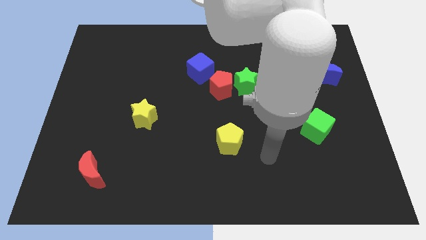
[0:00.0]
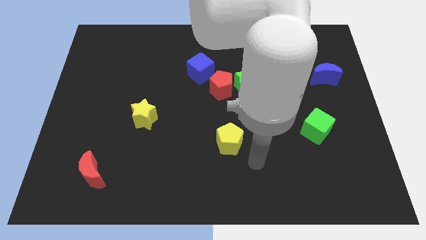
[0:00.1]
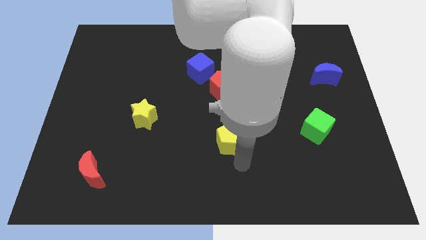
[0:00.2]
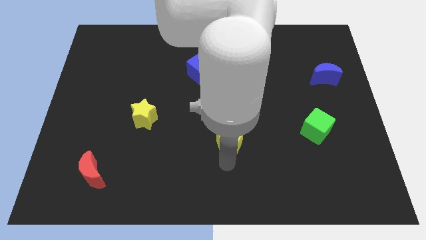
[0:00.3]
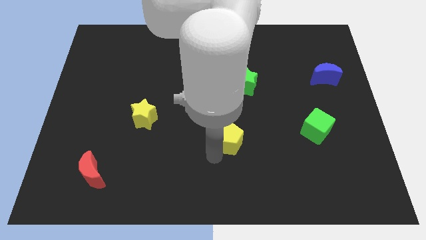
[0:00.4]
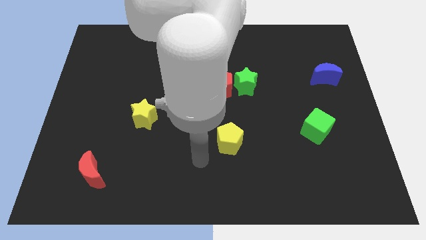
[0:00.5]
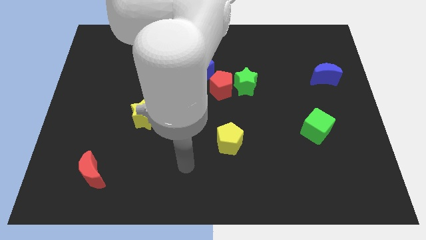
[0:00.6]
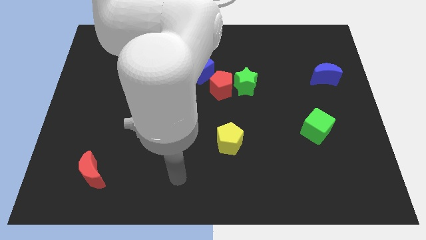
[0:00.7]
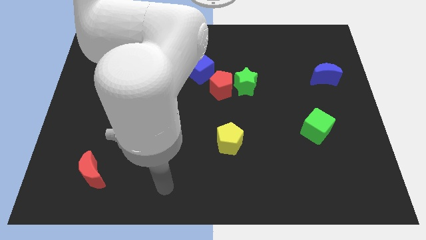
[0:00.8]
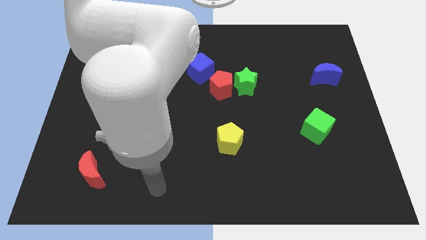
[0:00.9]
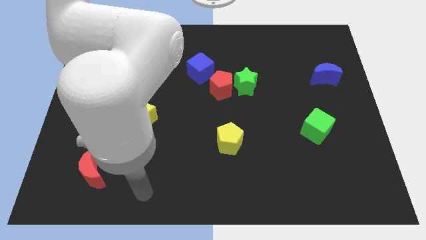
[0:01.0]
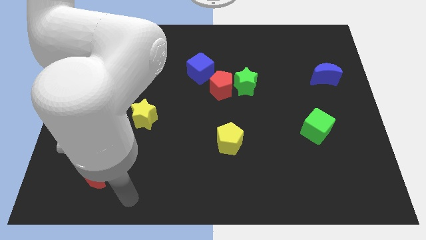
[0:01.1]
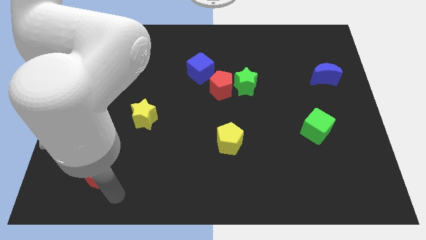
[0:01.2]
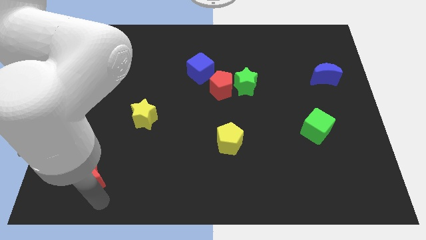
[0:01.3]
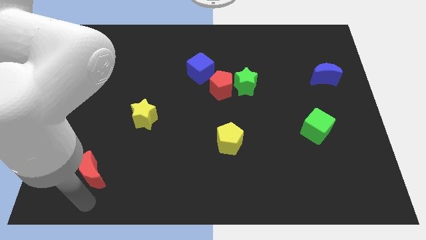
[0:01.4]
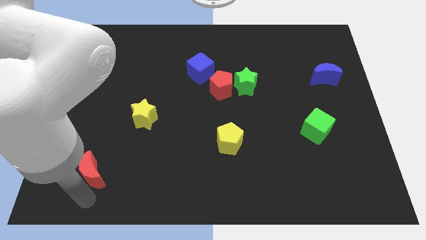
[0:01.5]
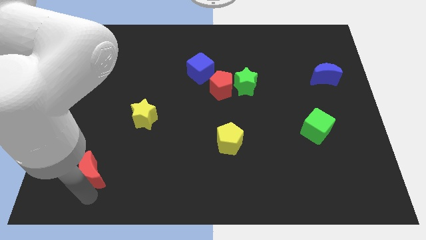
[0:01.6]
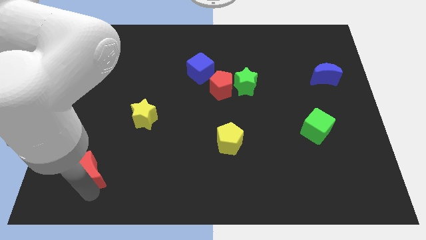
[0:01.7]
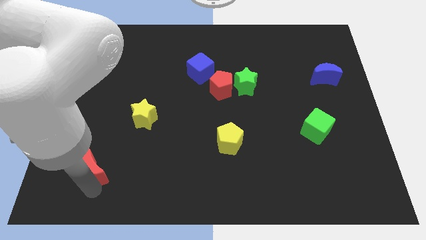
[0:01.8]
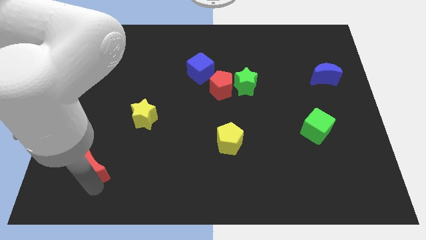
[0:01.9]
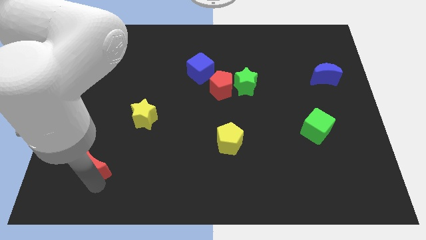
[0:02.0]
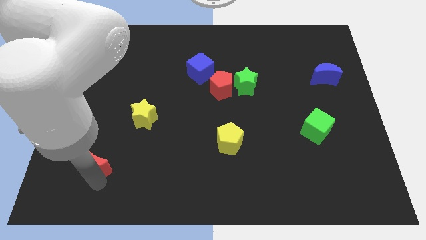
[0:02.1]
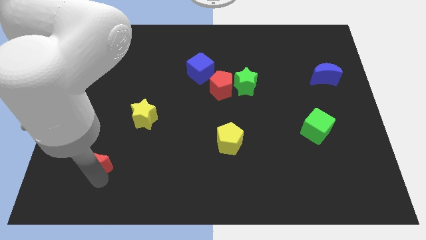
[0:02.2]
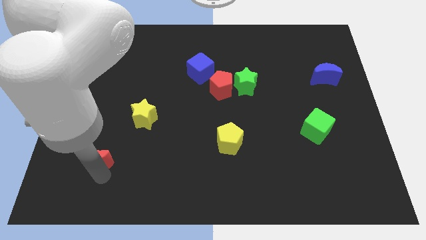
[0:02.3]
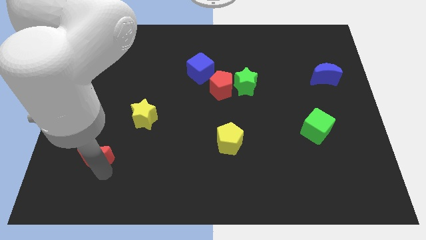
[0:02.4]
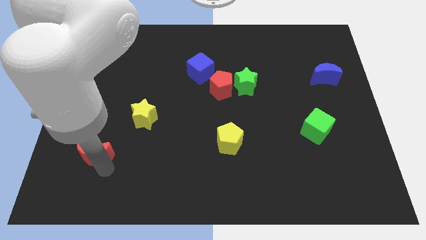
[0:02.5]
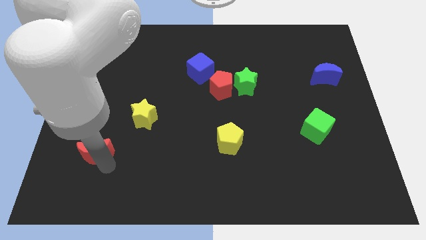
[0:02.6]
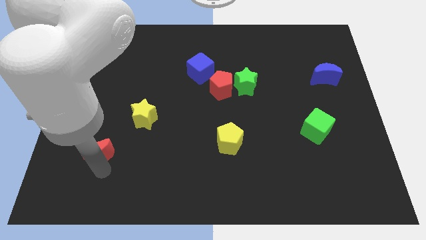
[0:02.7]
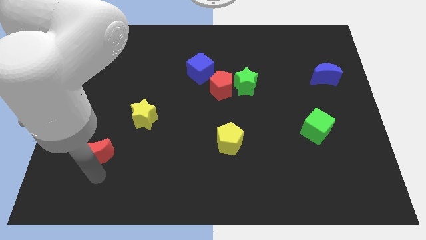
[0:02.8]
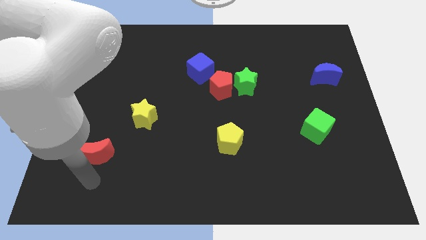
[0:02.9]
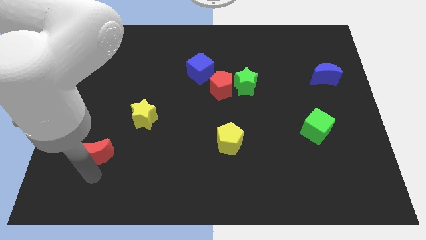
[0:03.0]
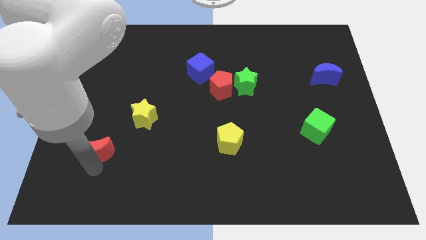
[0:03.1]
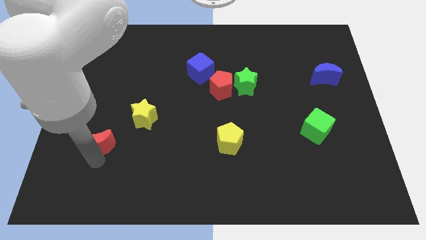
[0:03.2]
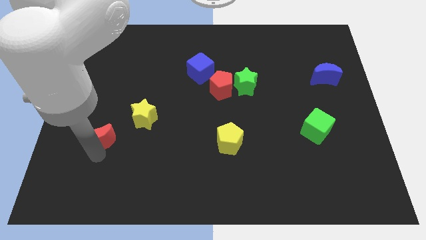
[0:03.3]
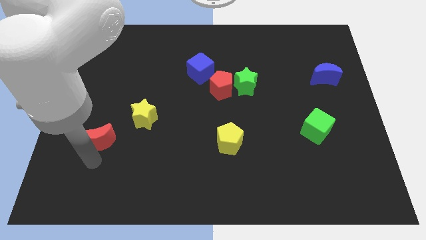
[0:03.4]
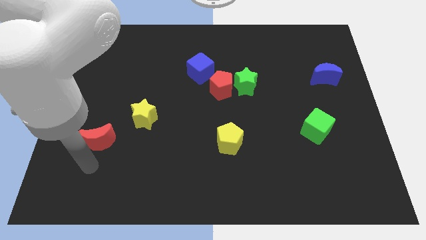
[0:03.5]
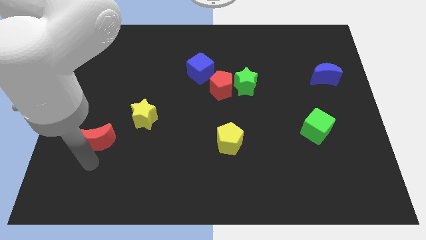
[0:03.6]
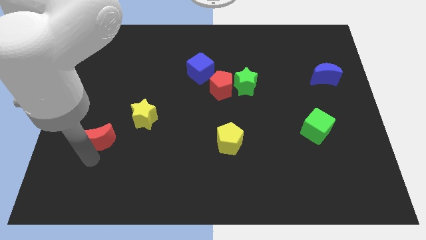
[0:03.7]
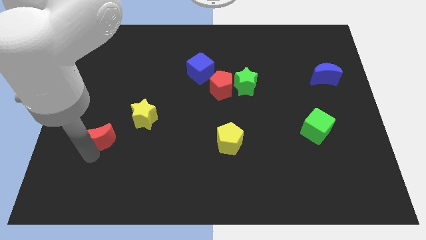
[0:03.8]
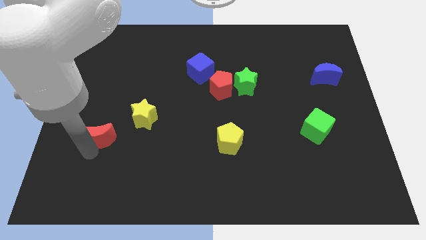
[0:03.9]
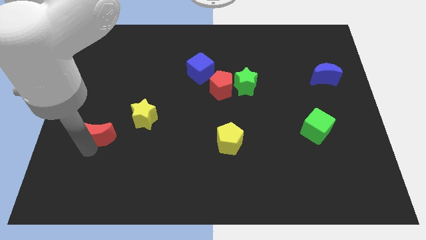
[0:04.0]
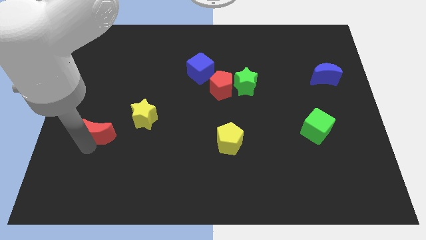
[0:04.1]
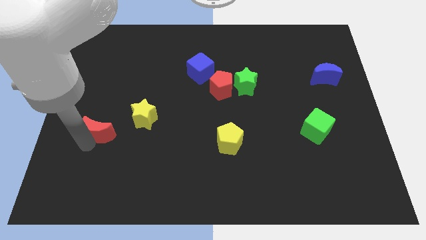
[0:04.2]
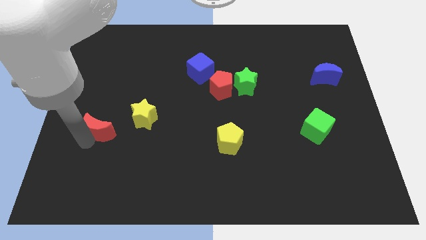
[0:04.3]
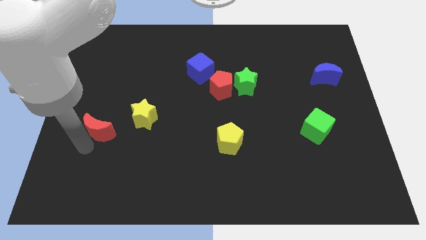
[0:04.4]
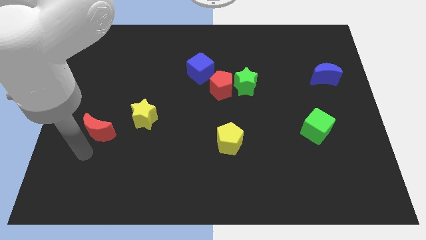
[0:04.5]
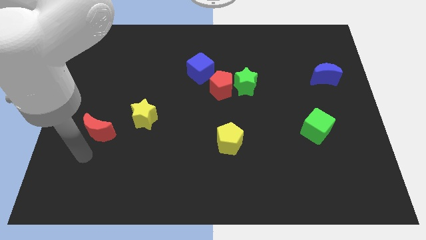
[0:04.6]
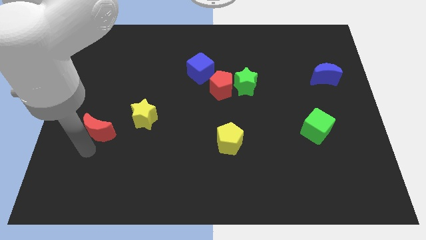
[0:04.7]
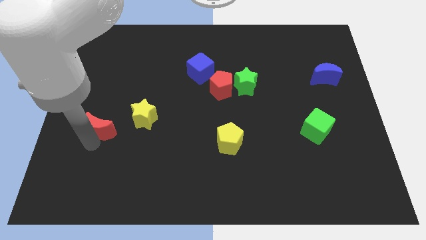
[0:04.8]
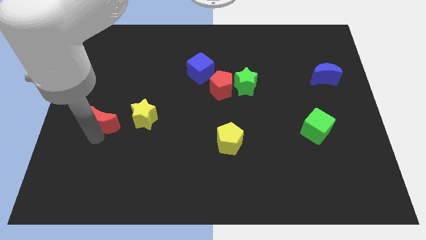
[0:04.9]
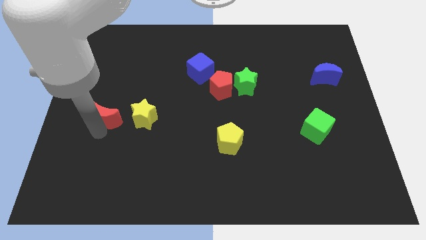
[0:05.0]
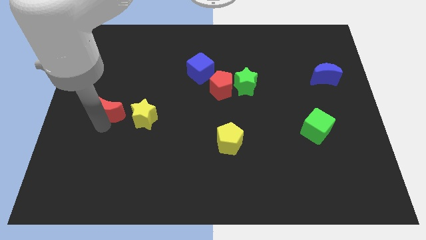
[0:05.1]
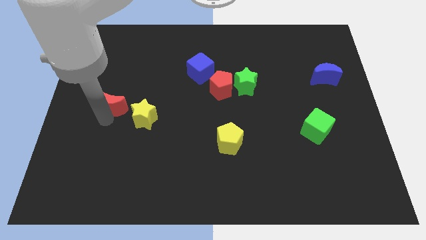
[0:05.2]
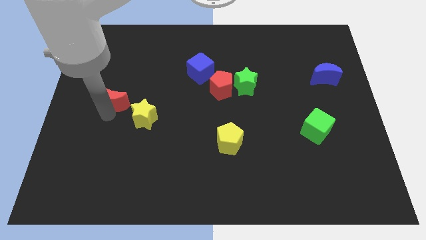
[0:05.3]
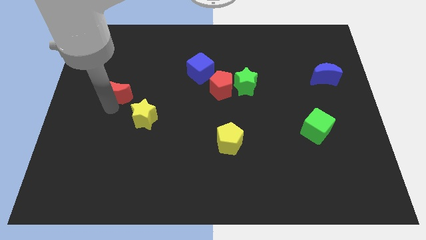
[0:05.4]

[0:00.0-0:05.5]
push the red moon up

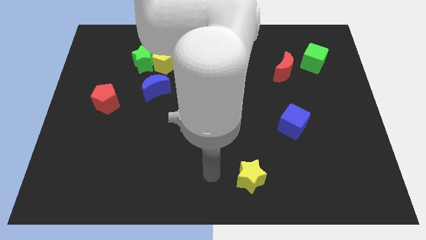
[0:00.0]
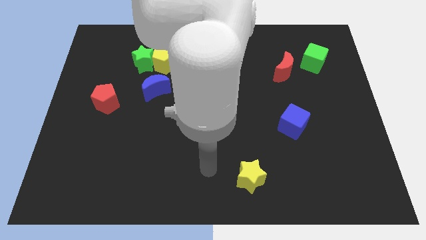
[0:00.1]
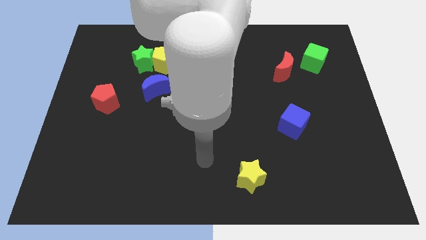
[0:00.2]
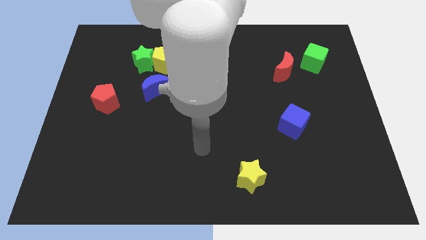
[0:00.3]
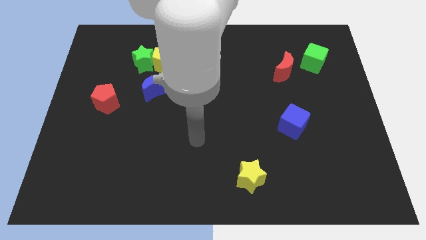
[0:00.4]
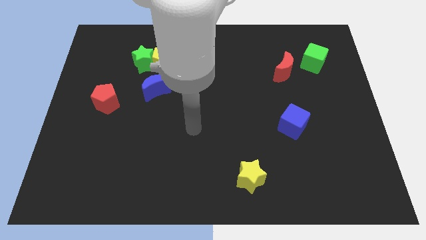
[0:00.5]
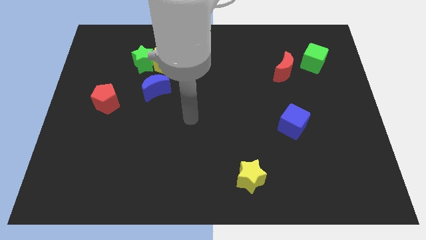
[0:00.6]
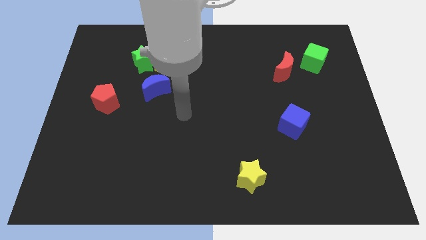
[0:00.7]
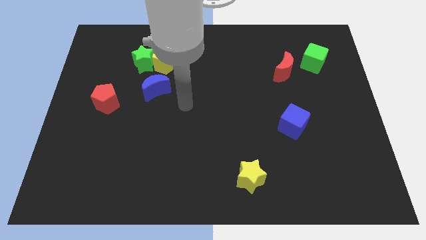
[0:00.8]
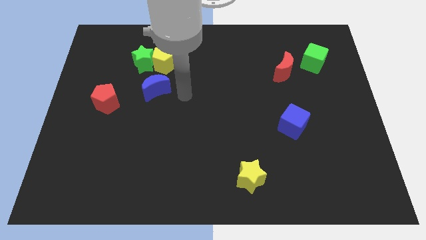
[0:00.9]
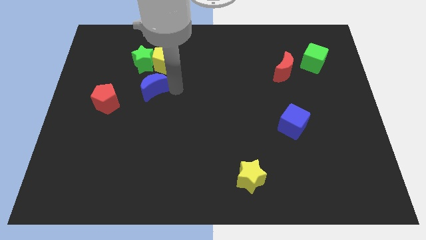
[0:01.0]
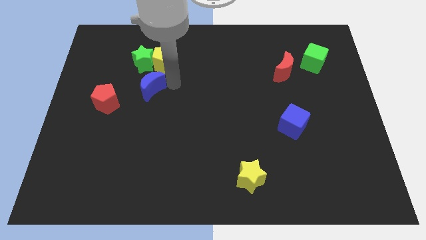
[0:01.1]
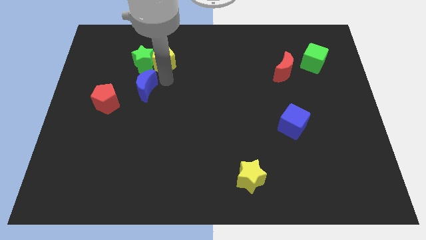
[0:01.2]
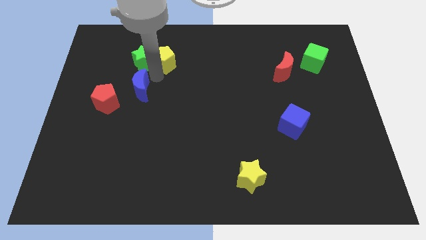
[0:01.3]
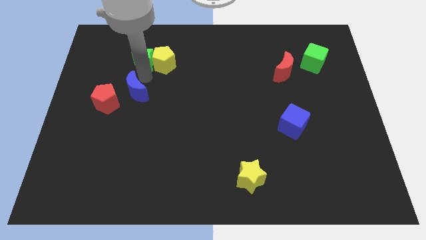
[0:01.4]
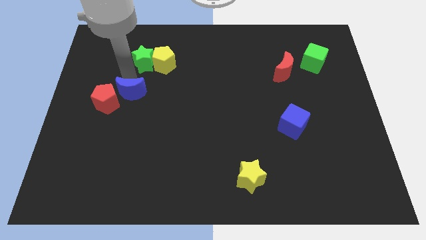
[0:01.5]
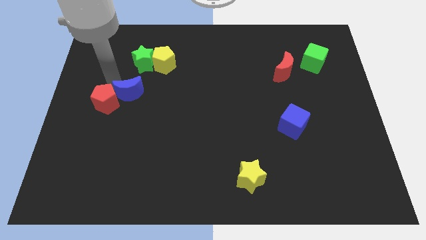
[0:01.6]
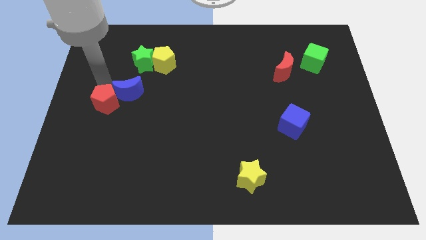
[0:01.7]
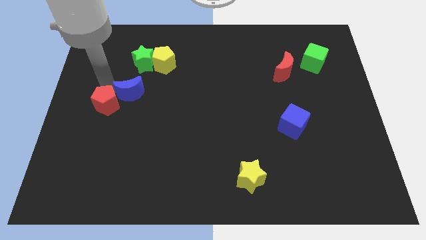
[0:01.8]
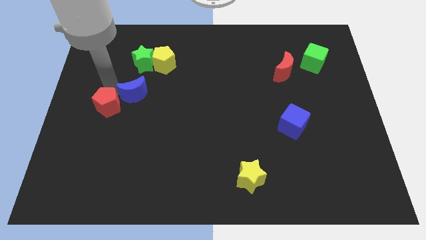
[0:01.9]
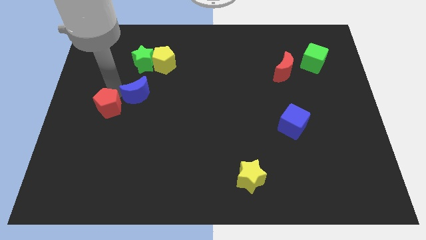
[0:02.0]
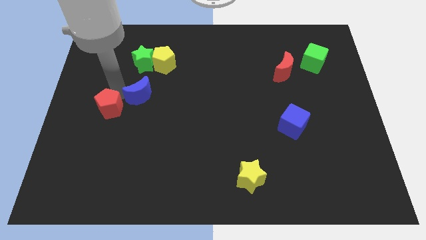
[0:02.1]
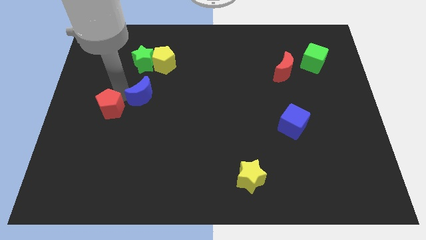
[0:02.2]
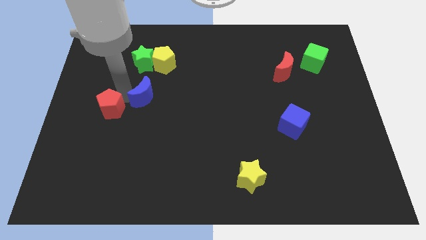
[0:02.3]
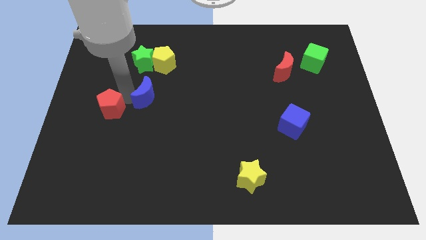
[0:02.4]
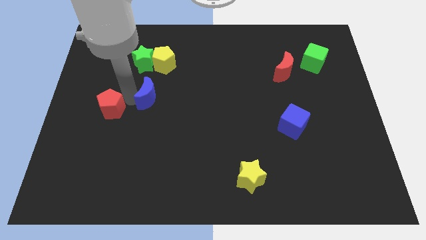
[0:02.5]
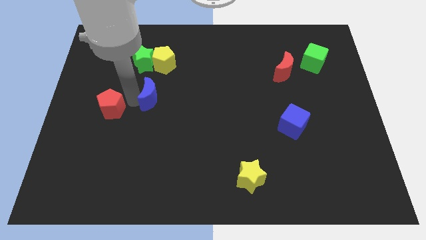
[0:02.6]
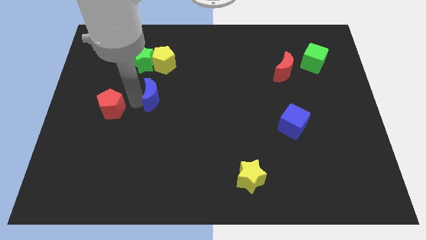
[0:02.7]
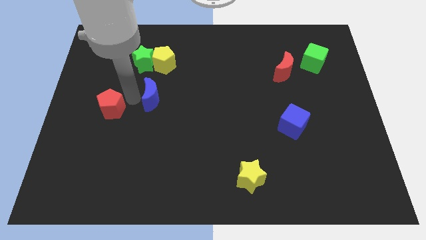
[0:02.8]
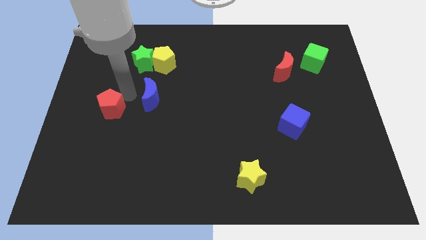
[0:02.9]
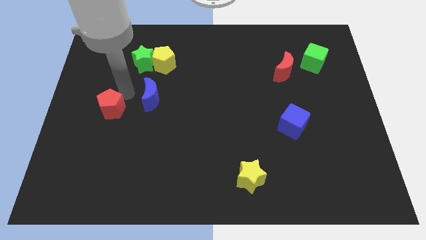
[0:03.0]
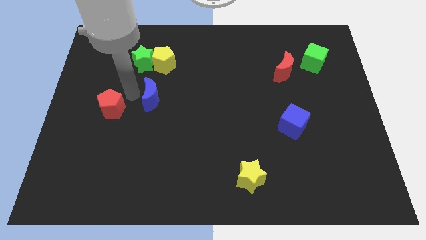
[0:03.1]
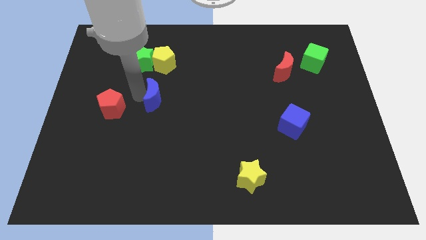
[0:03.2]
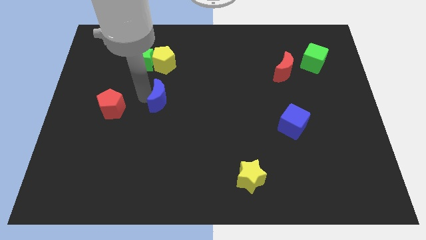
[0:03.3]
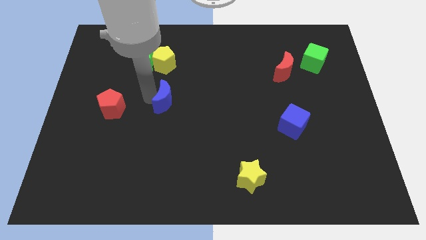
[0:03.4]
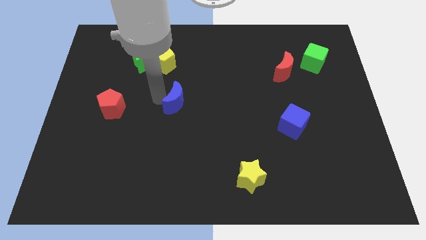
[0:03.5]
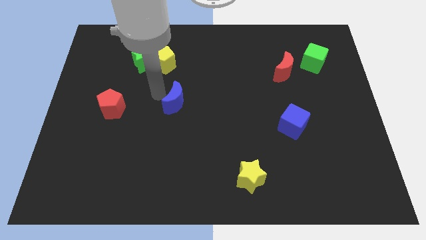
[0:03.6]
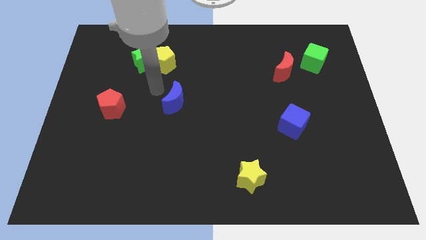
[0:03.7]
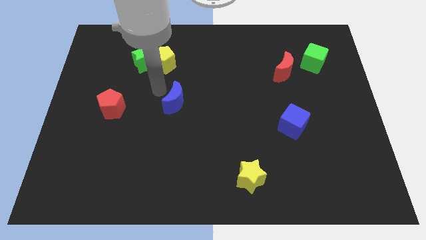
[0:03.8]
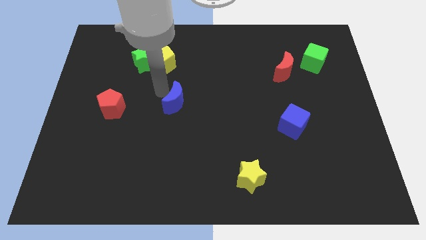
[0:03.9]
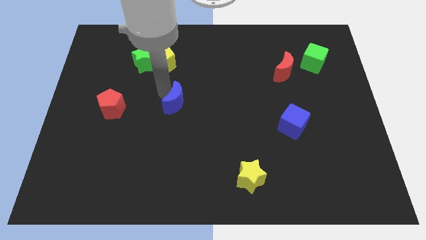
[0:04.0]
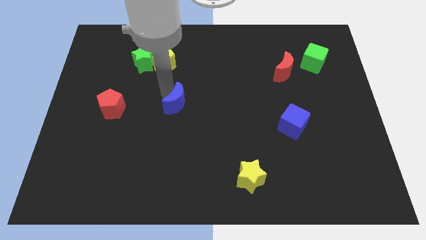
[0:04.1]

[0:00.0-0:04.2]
slightly move the blue moon diagonally downwards and to the right
